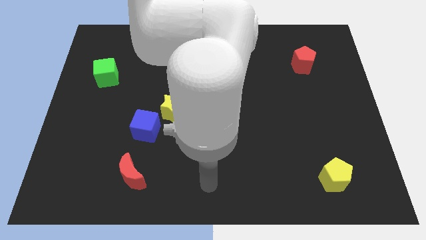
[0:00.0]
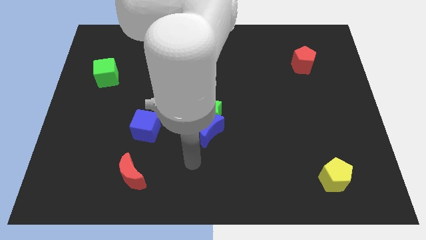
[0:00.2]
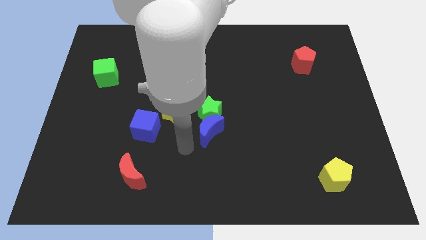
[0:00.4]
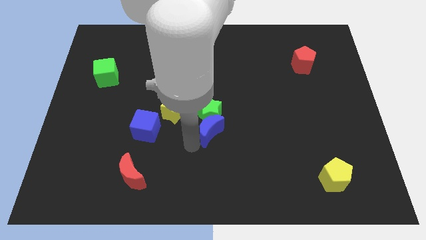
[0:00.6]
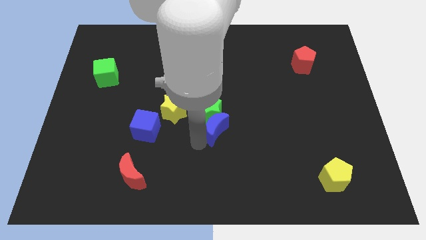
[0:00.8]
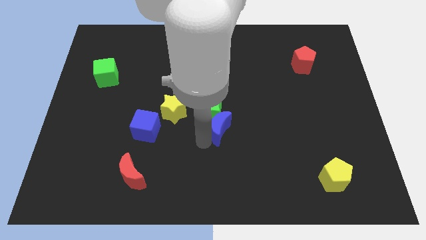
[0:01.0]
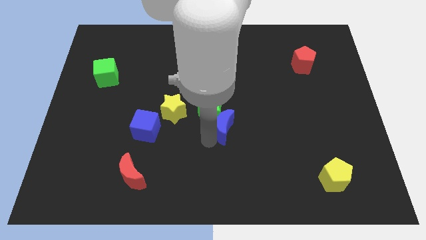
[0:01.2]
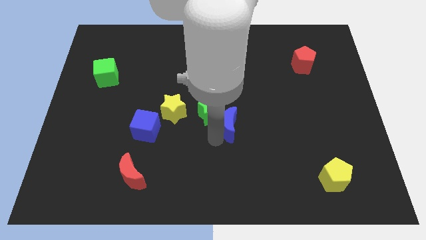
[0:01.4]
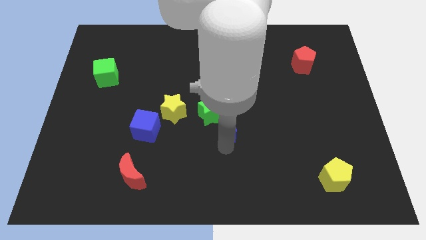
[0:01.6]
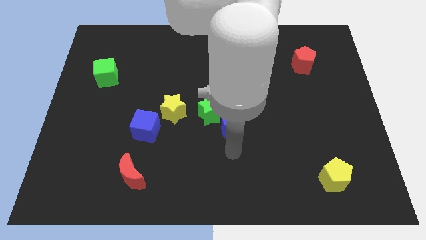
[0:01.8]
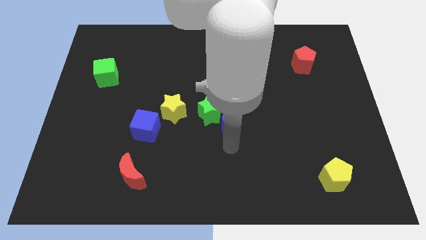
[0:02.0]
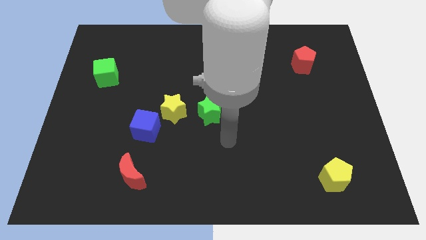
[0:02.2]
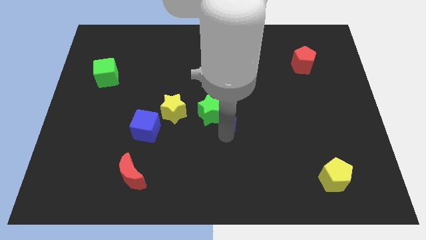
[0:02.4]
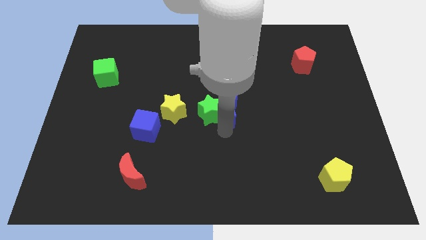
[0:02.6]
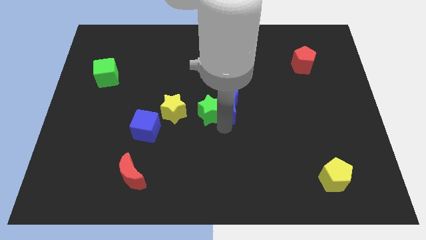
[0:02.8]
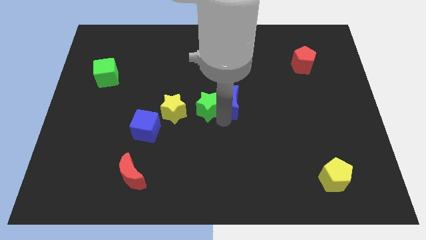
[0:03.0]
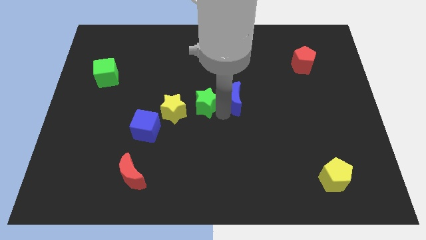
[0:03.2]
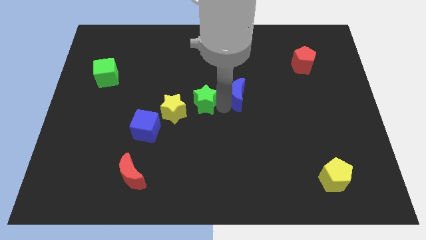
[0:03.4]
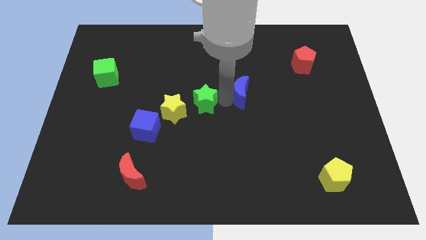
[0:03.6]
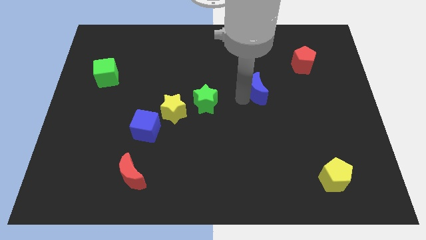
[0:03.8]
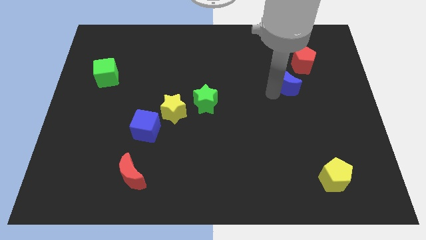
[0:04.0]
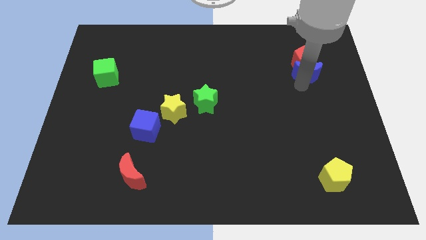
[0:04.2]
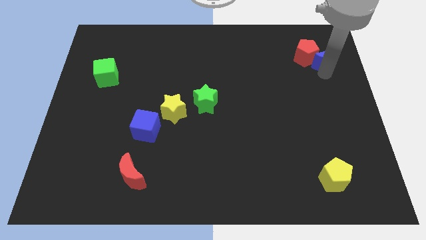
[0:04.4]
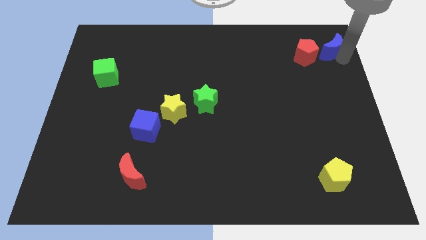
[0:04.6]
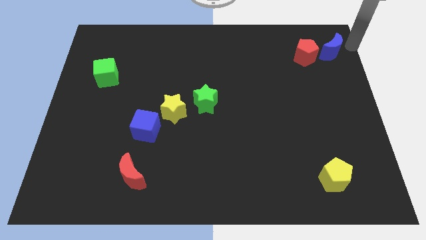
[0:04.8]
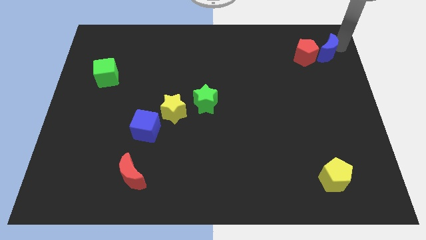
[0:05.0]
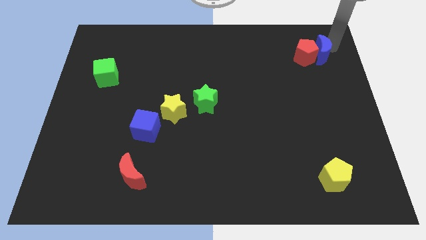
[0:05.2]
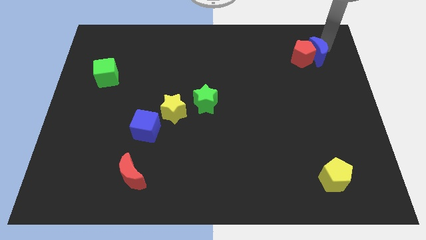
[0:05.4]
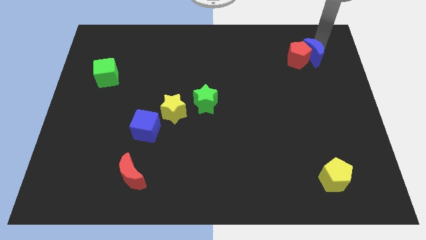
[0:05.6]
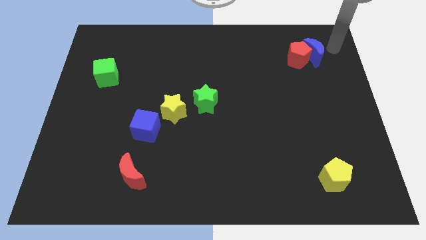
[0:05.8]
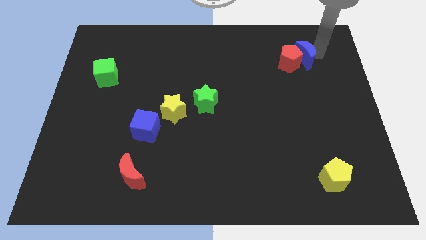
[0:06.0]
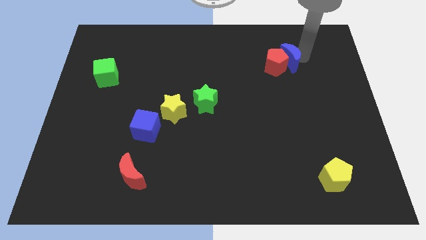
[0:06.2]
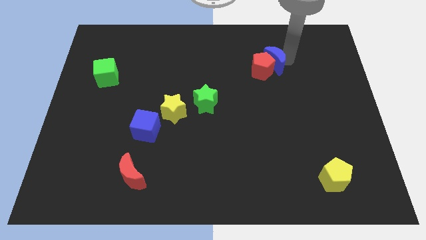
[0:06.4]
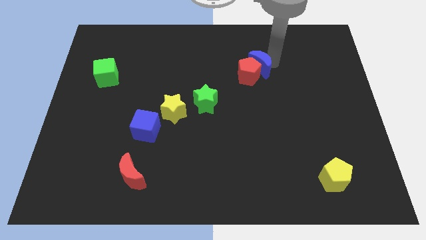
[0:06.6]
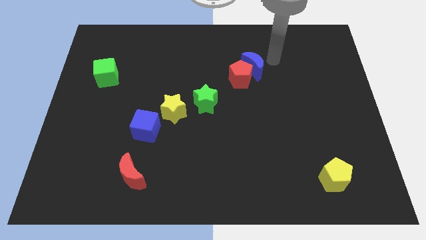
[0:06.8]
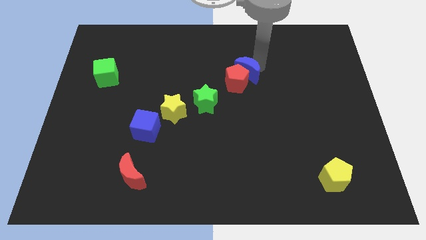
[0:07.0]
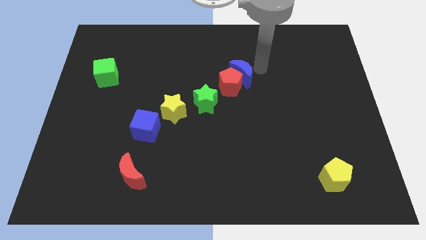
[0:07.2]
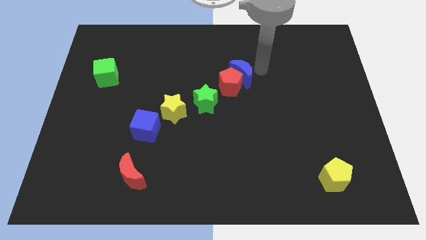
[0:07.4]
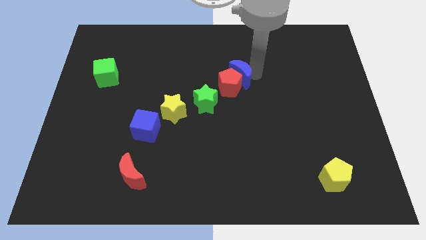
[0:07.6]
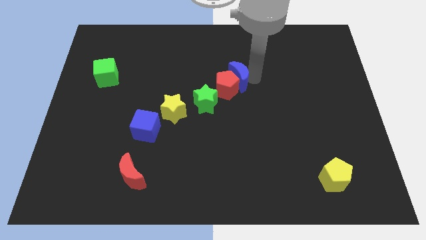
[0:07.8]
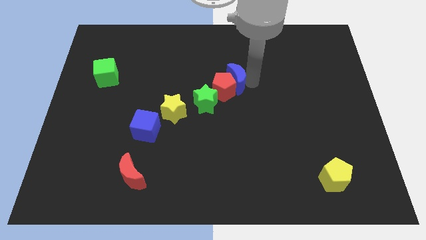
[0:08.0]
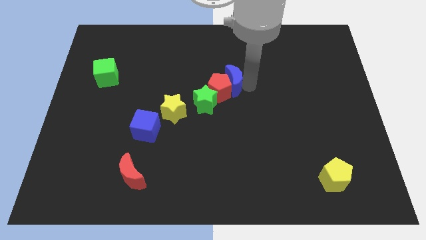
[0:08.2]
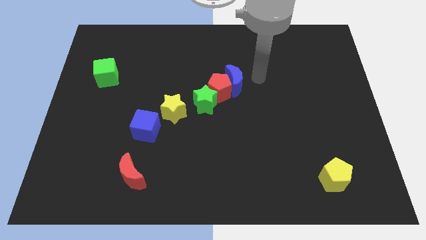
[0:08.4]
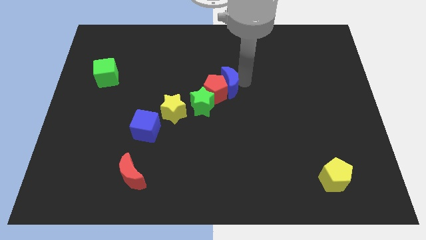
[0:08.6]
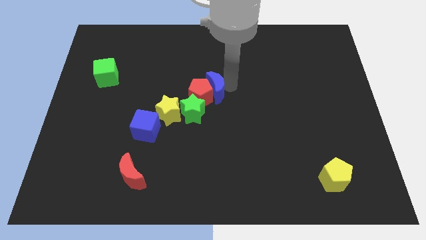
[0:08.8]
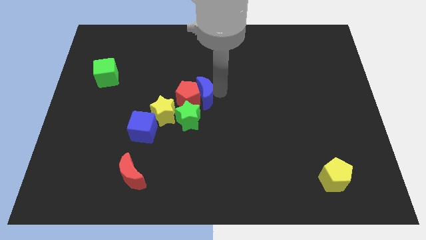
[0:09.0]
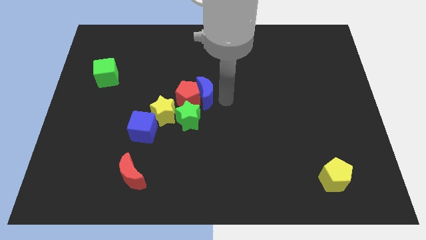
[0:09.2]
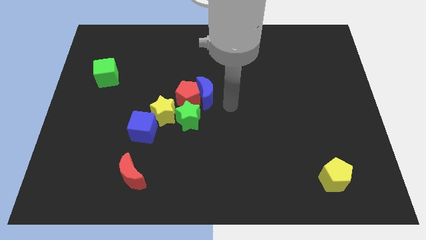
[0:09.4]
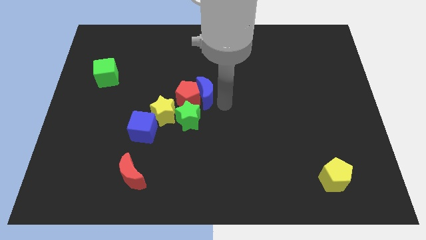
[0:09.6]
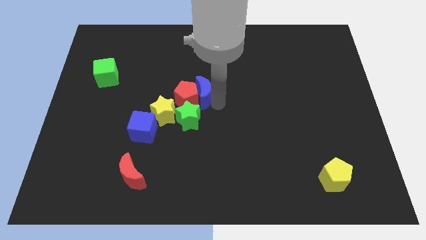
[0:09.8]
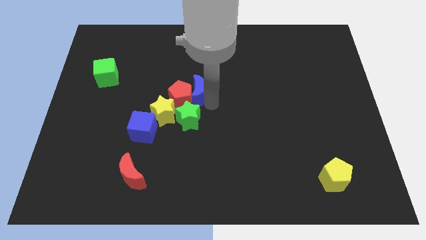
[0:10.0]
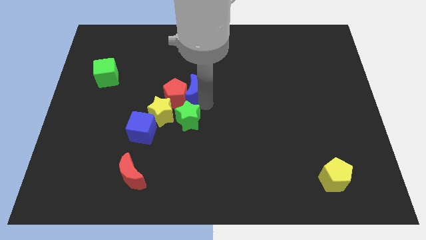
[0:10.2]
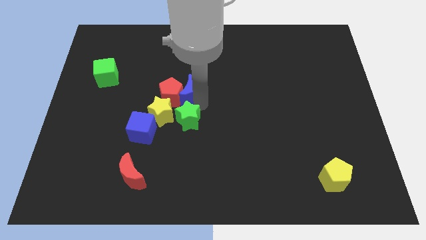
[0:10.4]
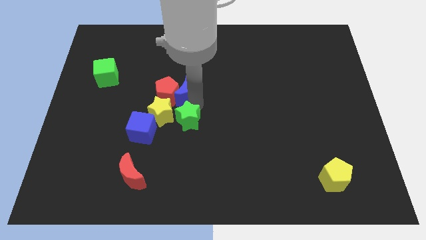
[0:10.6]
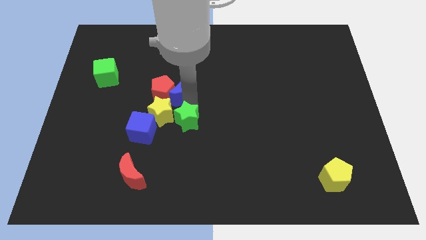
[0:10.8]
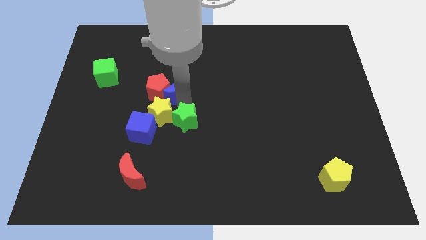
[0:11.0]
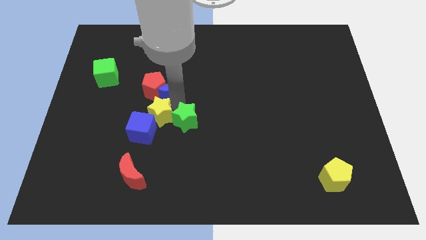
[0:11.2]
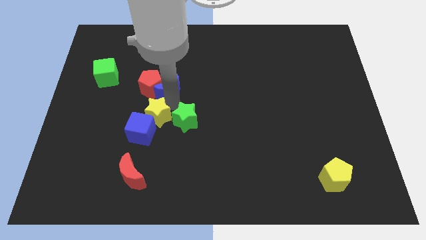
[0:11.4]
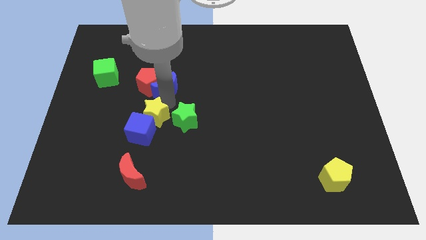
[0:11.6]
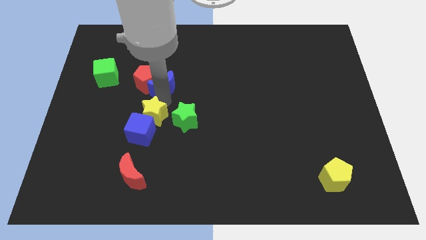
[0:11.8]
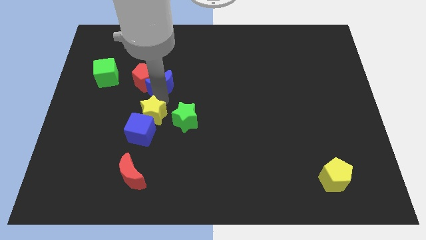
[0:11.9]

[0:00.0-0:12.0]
put the blue moon to the right side of the green cube

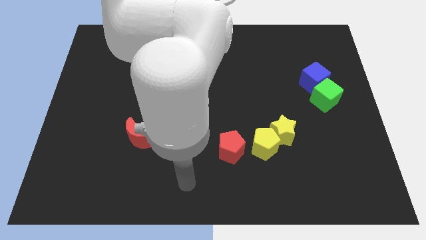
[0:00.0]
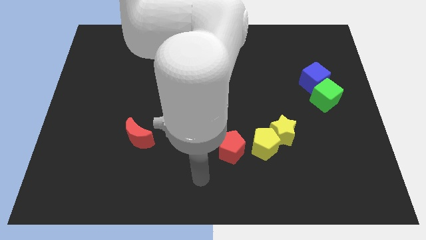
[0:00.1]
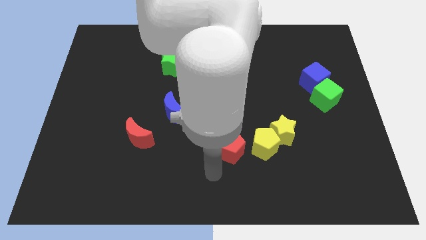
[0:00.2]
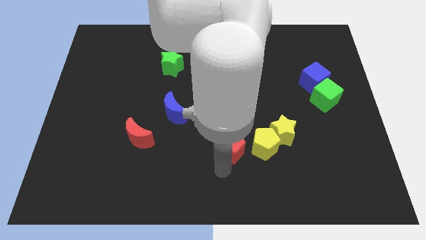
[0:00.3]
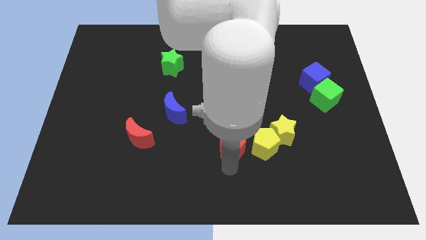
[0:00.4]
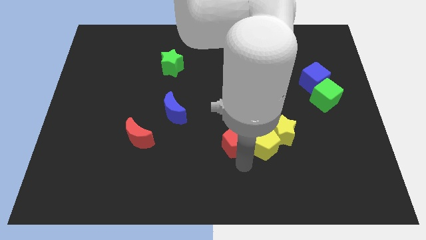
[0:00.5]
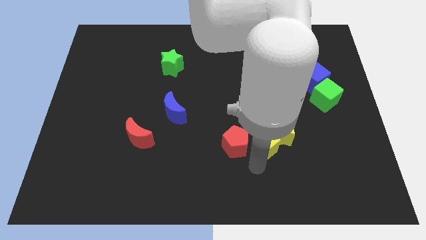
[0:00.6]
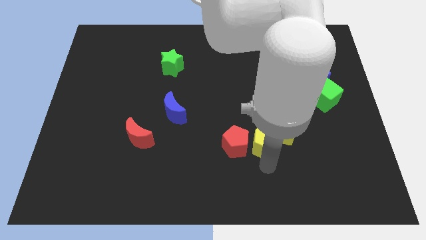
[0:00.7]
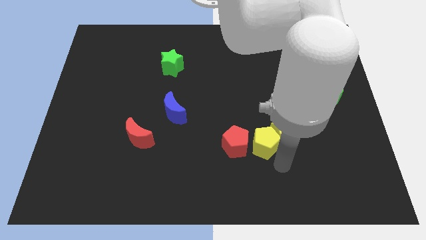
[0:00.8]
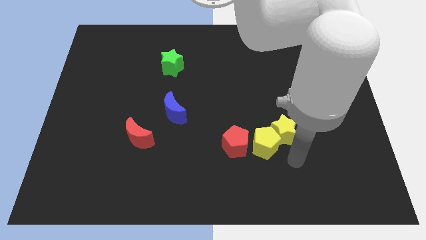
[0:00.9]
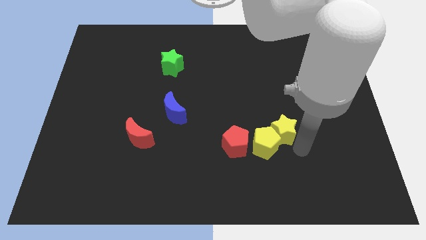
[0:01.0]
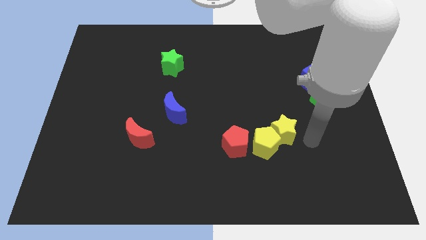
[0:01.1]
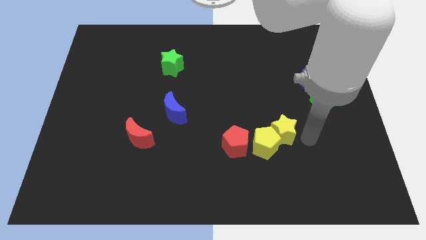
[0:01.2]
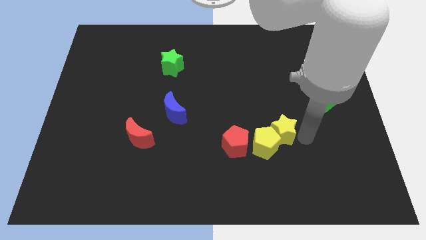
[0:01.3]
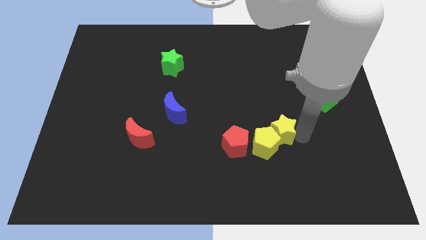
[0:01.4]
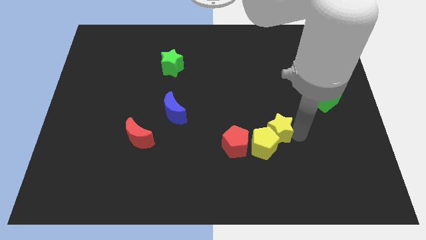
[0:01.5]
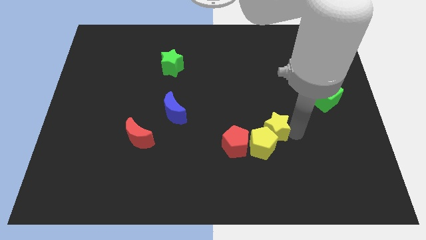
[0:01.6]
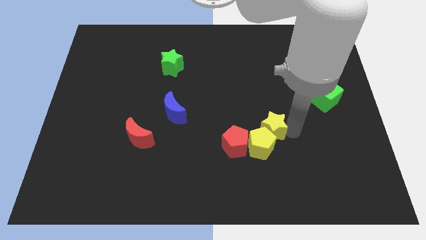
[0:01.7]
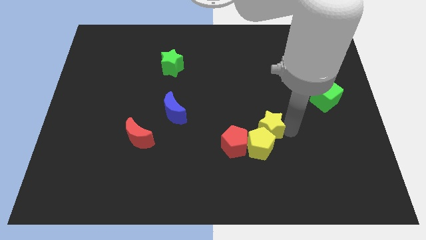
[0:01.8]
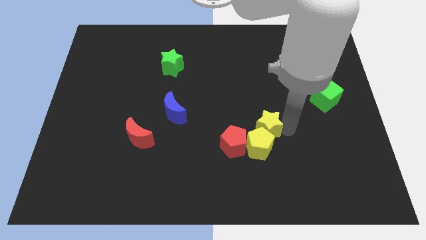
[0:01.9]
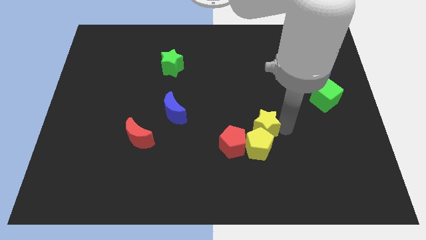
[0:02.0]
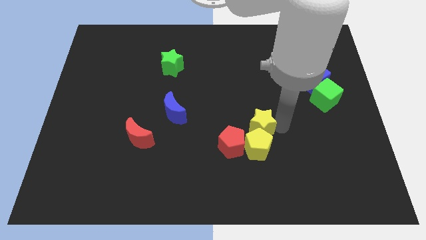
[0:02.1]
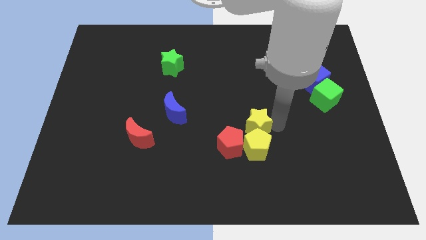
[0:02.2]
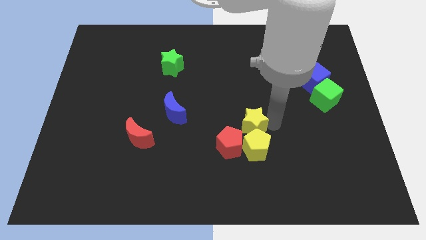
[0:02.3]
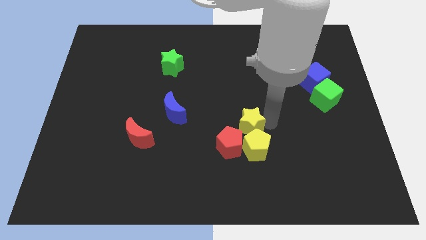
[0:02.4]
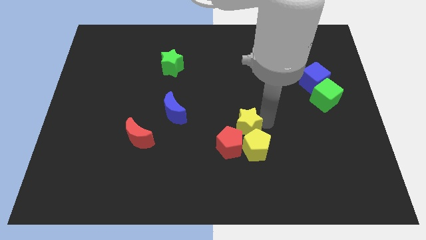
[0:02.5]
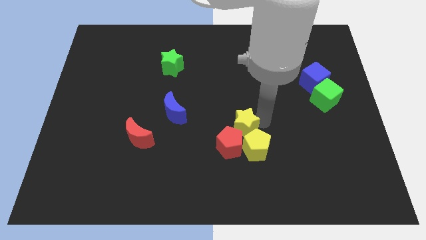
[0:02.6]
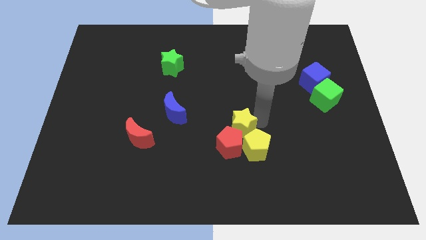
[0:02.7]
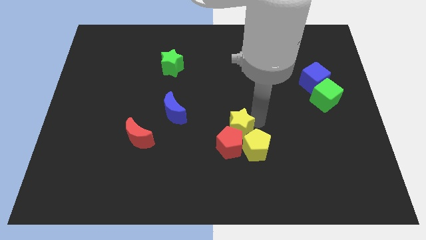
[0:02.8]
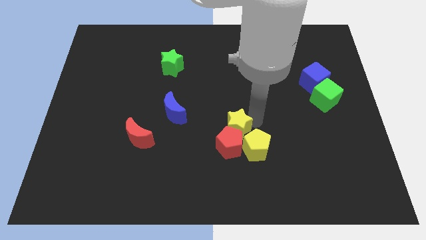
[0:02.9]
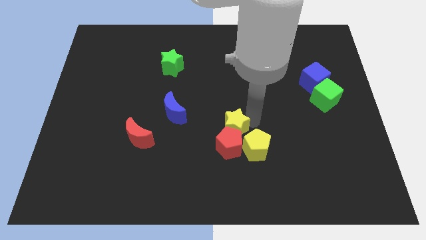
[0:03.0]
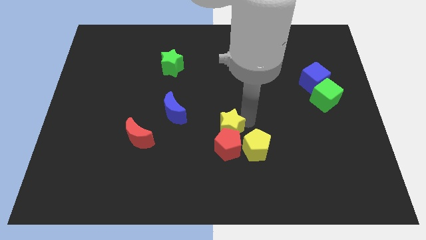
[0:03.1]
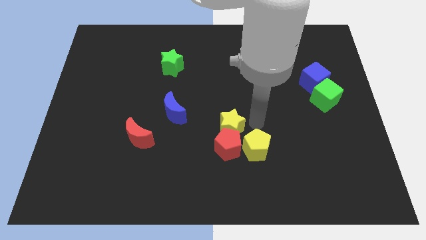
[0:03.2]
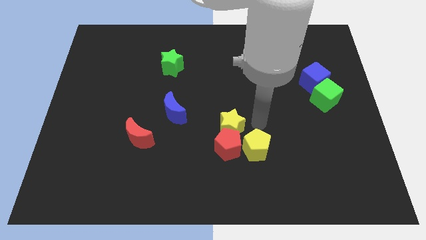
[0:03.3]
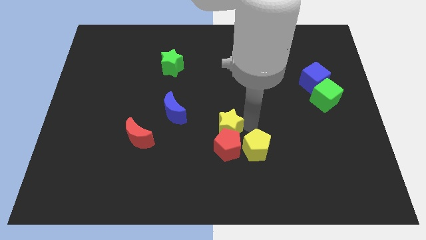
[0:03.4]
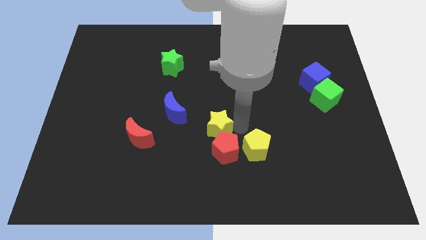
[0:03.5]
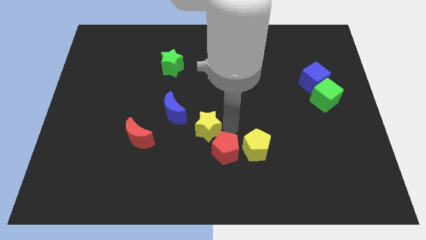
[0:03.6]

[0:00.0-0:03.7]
move the yellow star right of the red moon
